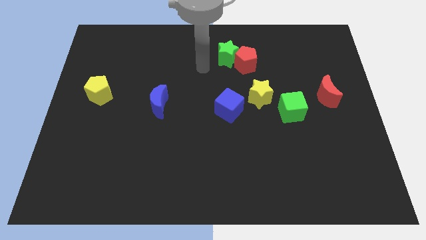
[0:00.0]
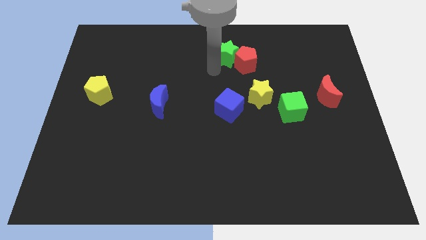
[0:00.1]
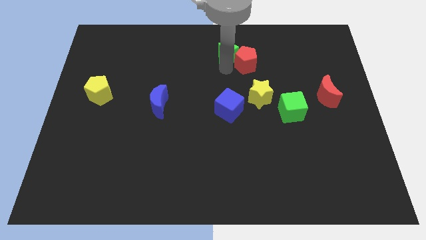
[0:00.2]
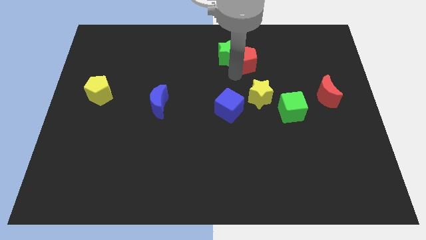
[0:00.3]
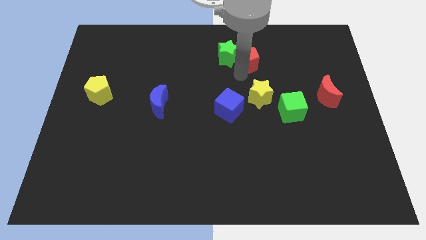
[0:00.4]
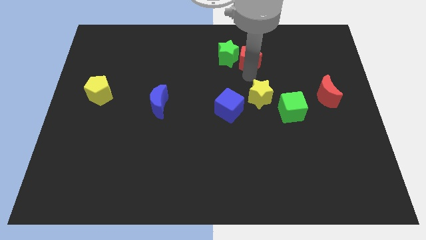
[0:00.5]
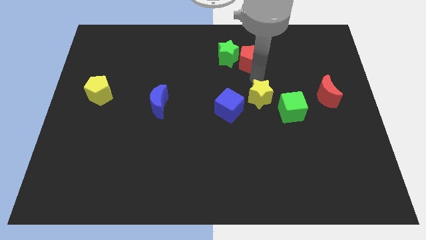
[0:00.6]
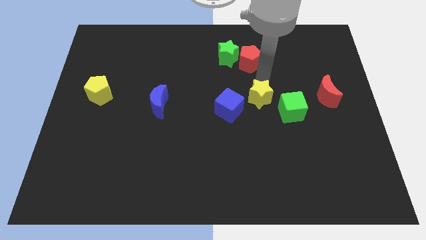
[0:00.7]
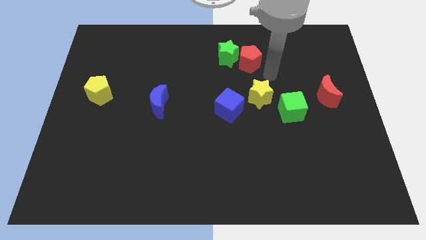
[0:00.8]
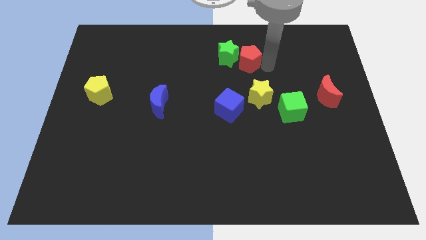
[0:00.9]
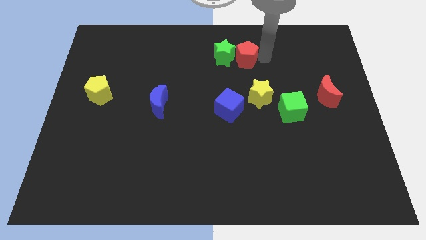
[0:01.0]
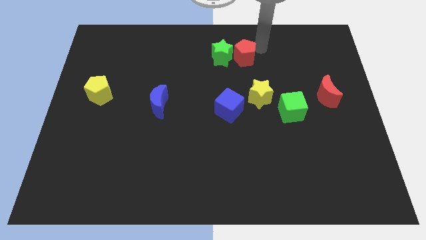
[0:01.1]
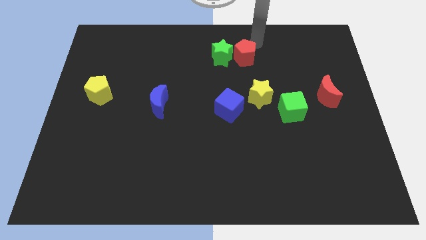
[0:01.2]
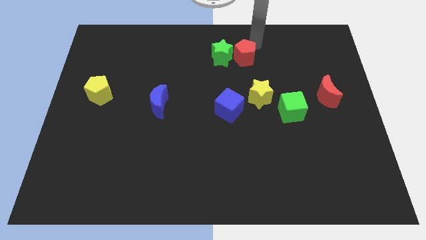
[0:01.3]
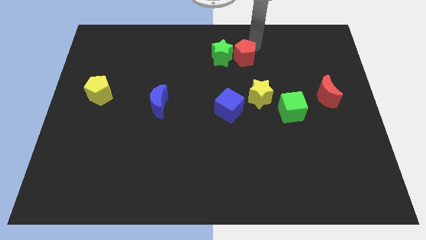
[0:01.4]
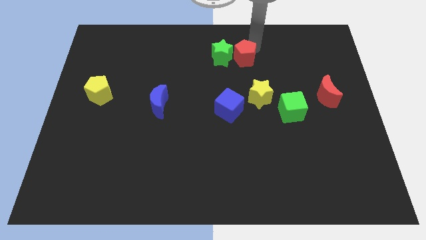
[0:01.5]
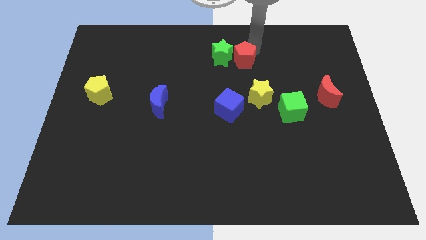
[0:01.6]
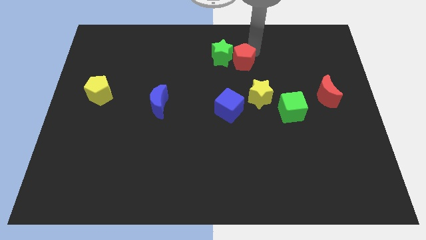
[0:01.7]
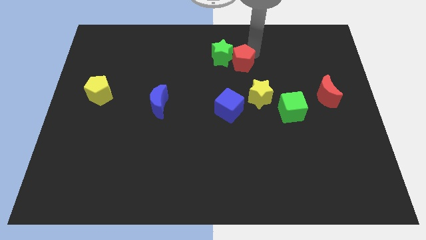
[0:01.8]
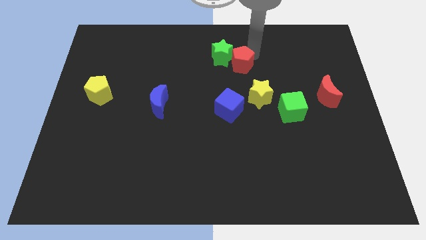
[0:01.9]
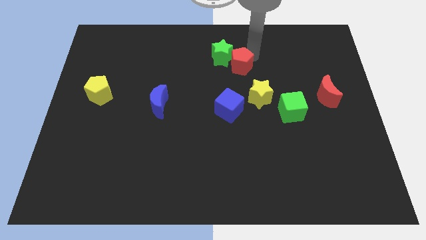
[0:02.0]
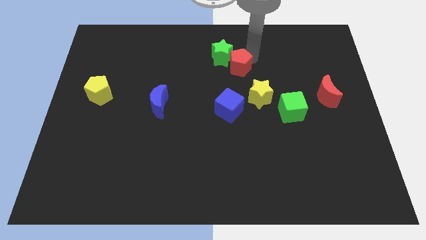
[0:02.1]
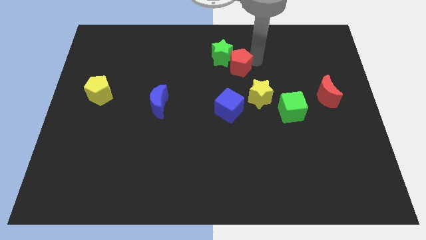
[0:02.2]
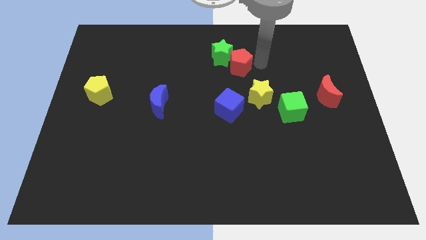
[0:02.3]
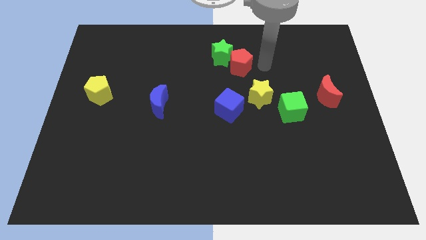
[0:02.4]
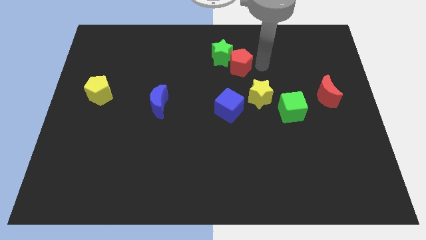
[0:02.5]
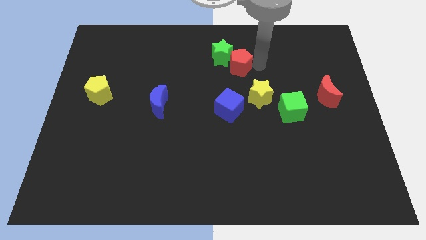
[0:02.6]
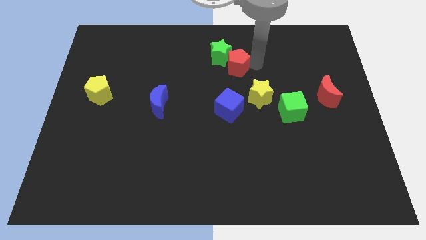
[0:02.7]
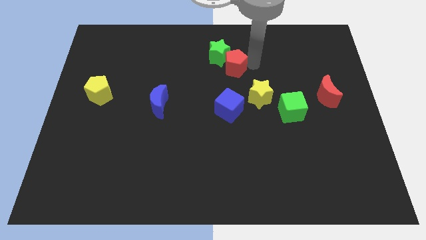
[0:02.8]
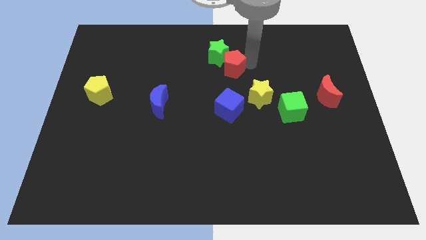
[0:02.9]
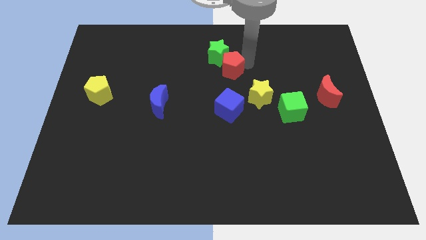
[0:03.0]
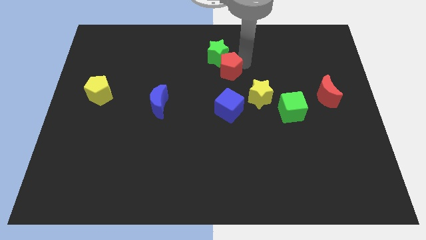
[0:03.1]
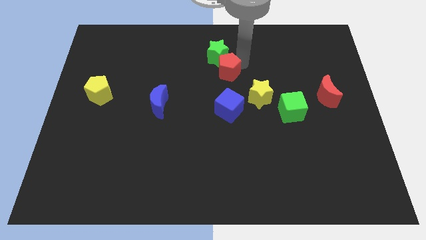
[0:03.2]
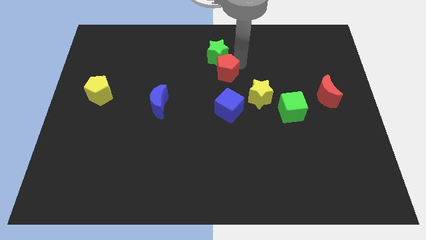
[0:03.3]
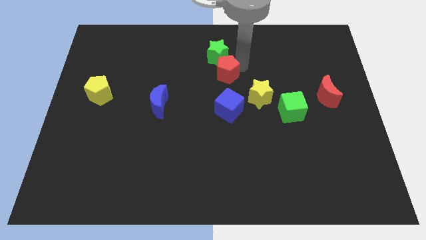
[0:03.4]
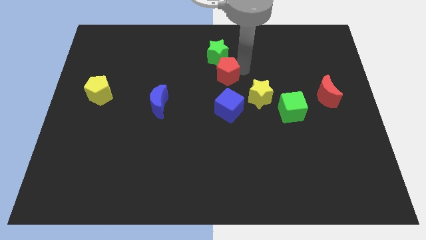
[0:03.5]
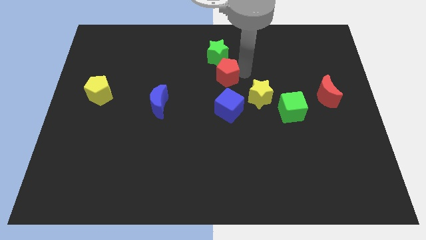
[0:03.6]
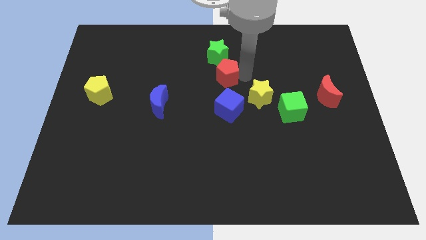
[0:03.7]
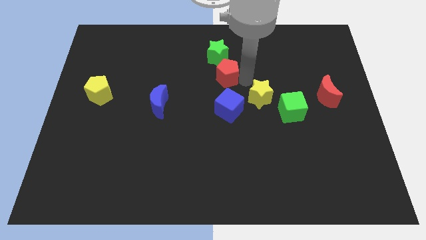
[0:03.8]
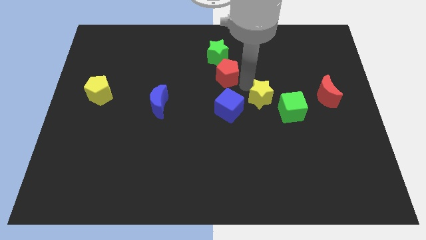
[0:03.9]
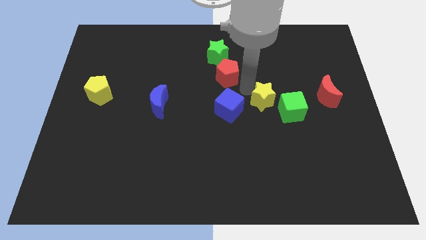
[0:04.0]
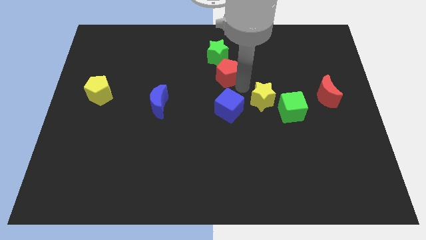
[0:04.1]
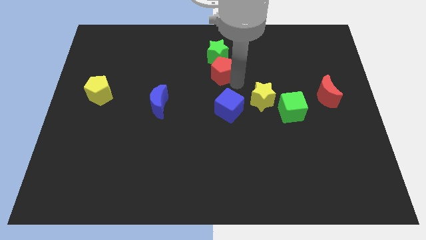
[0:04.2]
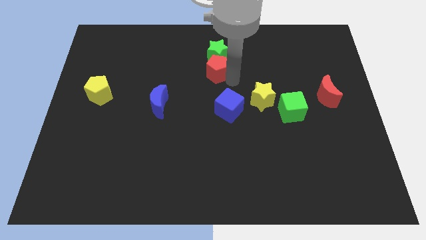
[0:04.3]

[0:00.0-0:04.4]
slide the red pentagon a bit to the left

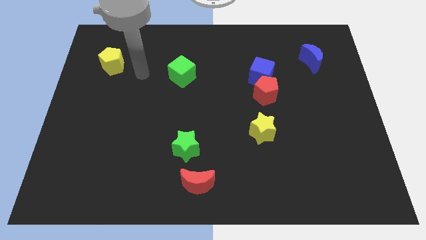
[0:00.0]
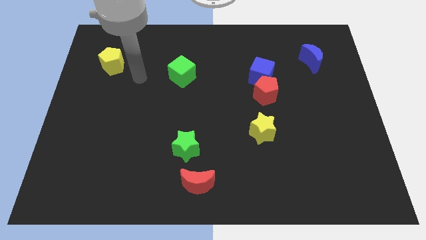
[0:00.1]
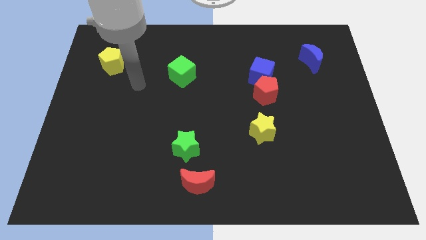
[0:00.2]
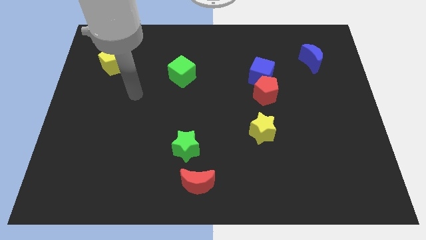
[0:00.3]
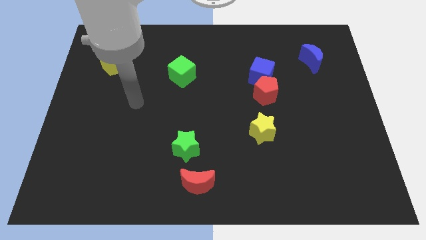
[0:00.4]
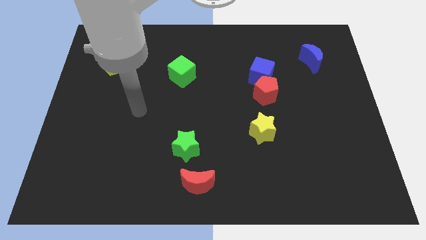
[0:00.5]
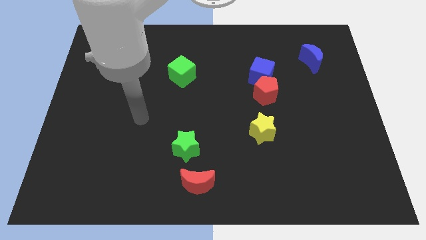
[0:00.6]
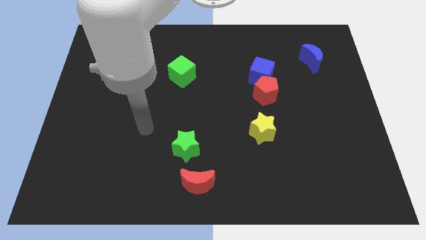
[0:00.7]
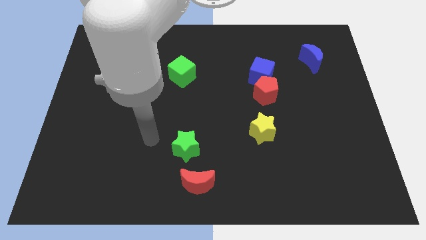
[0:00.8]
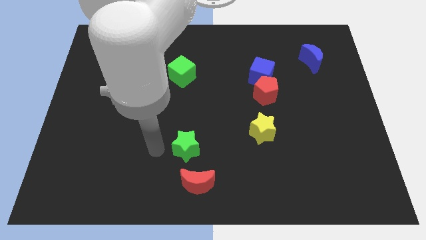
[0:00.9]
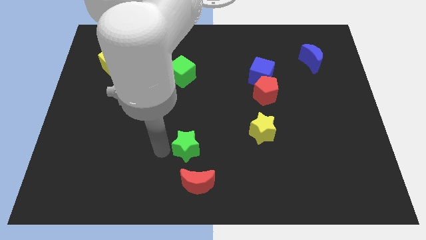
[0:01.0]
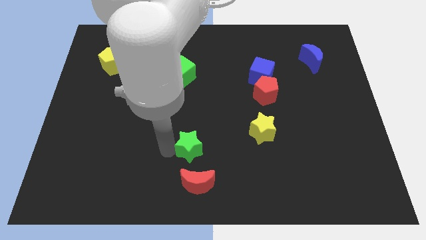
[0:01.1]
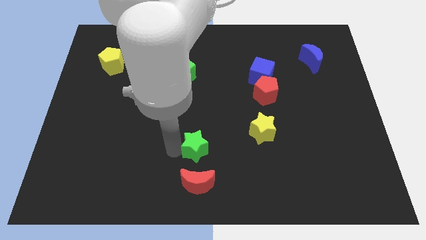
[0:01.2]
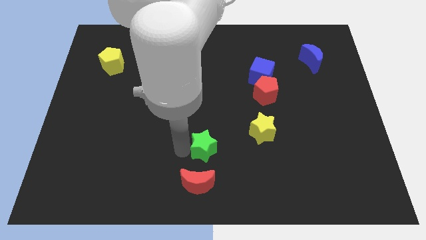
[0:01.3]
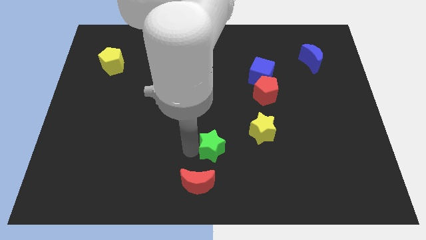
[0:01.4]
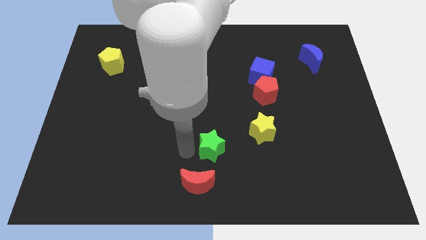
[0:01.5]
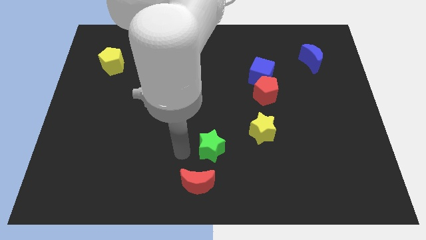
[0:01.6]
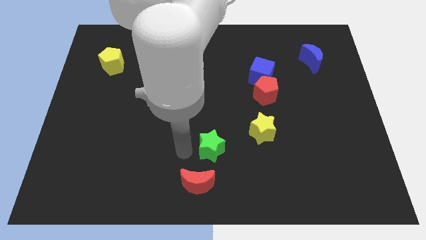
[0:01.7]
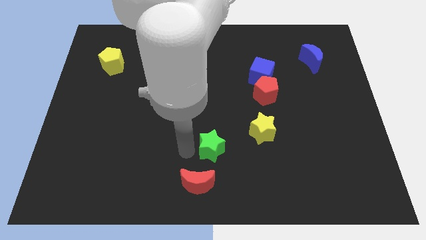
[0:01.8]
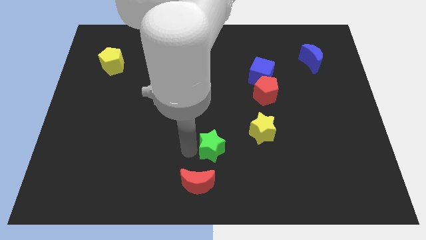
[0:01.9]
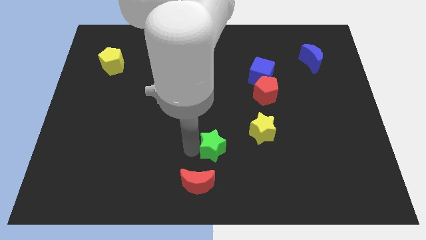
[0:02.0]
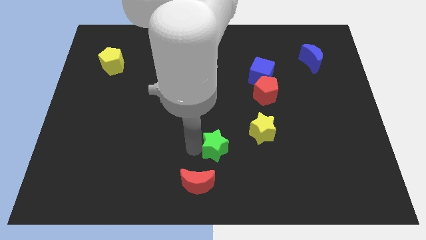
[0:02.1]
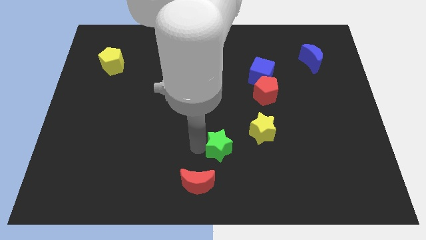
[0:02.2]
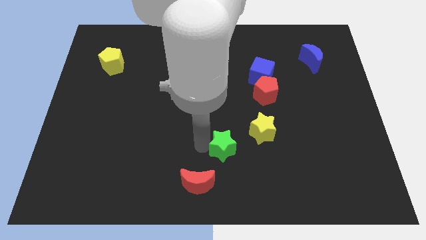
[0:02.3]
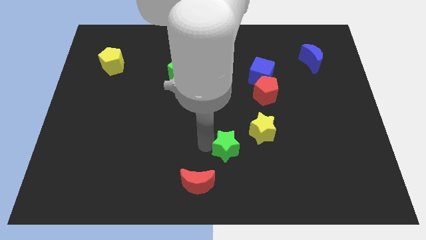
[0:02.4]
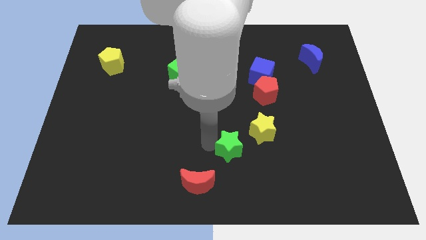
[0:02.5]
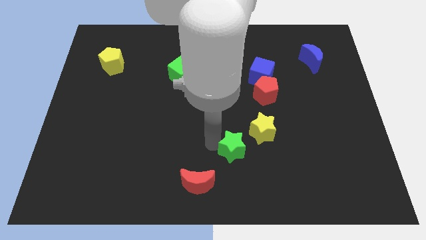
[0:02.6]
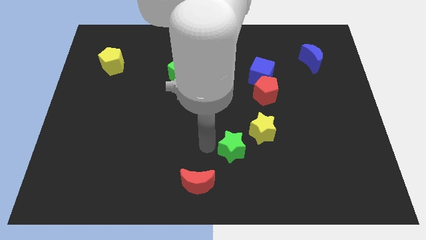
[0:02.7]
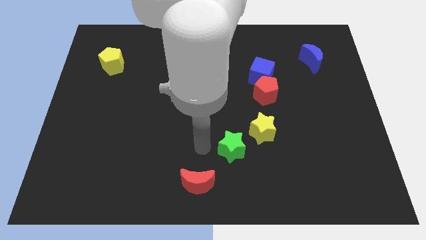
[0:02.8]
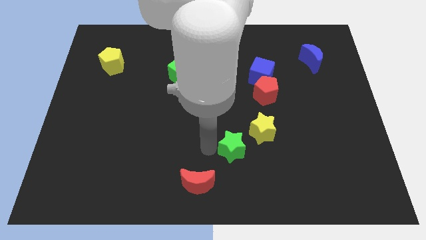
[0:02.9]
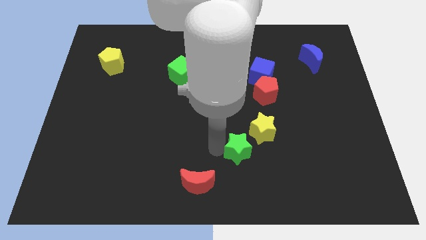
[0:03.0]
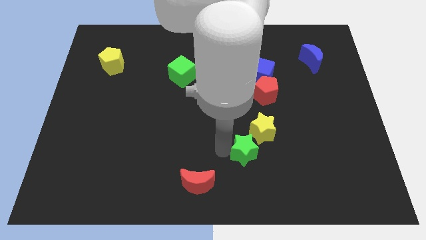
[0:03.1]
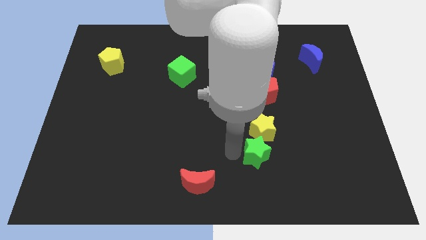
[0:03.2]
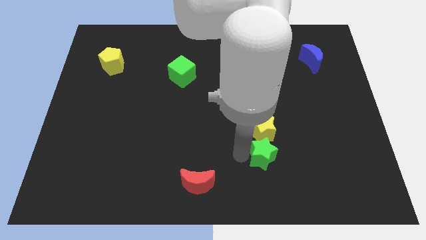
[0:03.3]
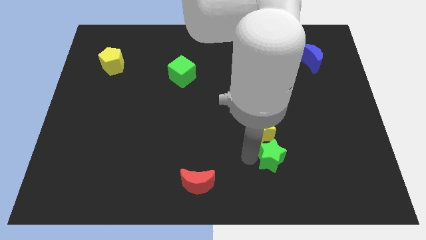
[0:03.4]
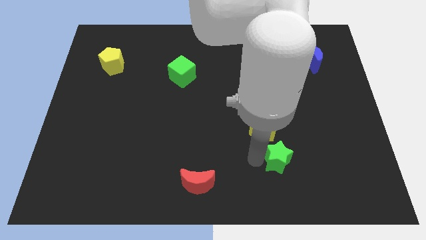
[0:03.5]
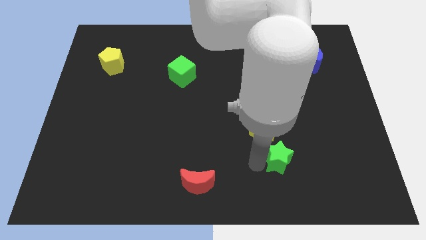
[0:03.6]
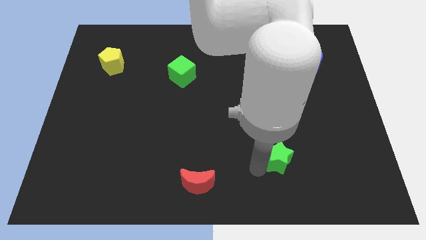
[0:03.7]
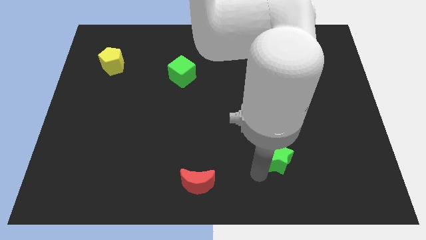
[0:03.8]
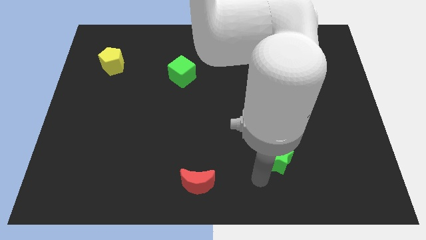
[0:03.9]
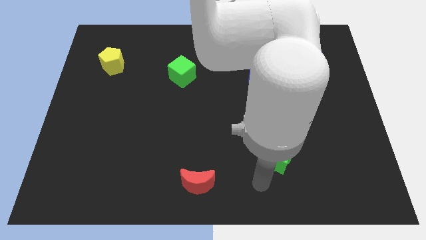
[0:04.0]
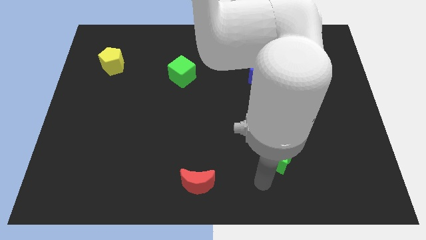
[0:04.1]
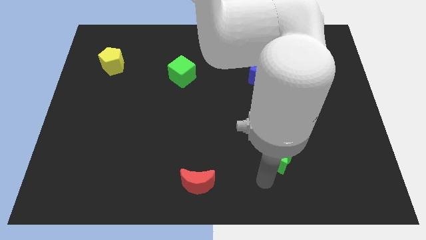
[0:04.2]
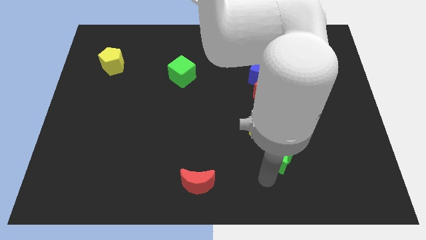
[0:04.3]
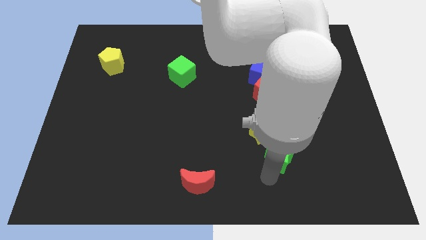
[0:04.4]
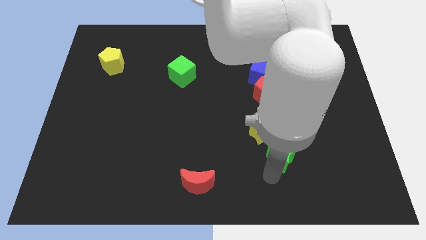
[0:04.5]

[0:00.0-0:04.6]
move the green star to the right
